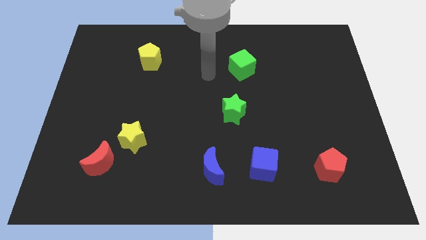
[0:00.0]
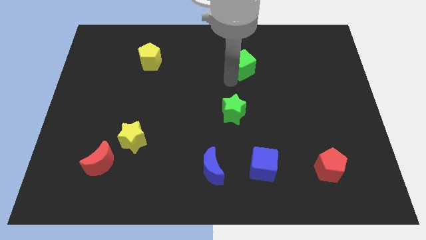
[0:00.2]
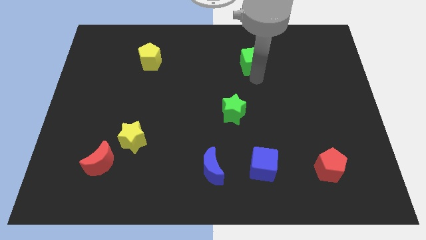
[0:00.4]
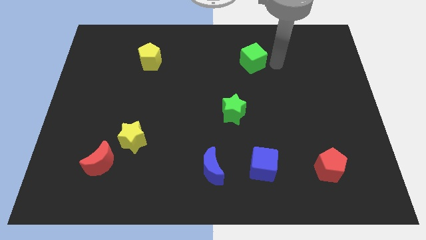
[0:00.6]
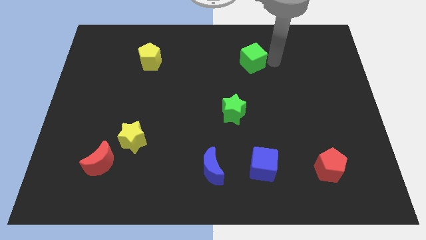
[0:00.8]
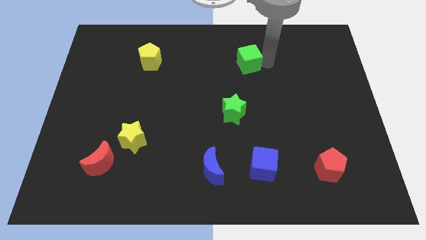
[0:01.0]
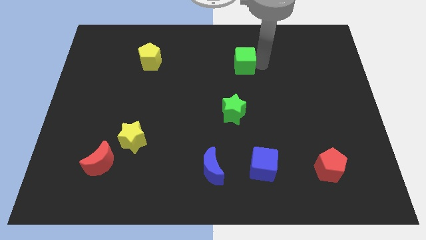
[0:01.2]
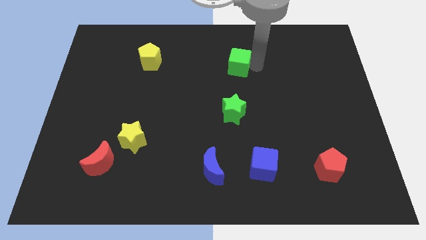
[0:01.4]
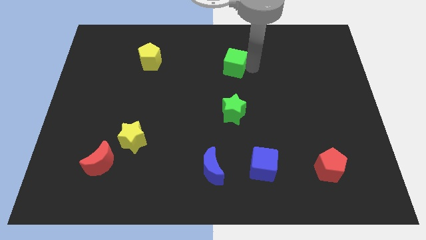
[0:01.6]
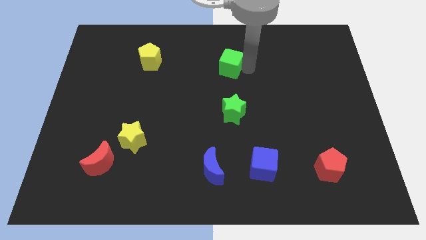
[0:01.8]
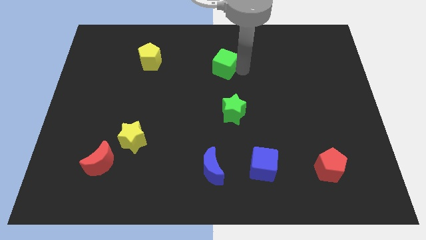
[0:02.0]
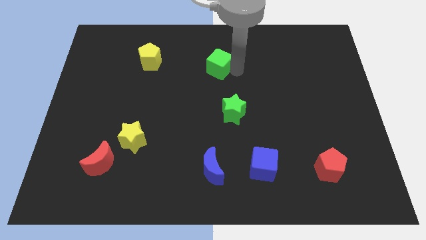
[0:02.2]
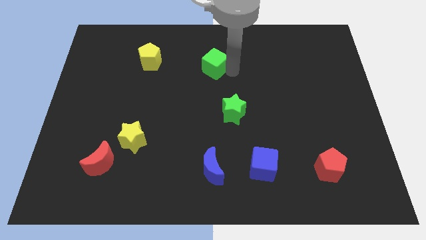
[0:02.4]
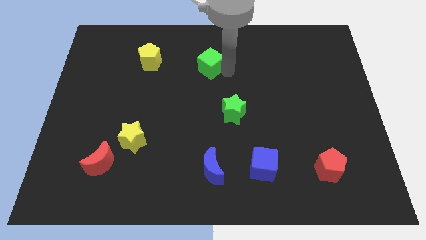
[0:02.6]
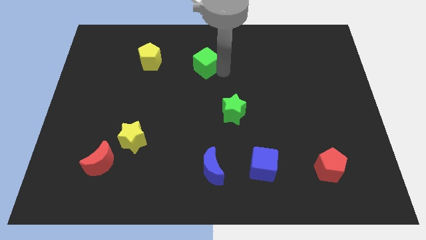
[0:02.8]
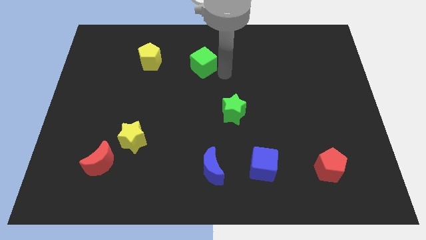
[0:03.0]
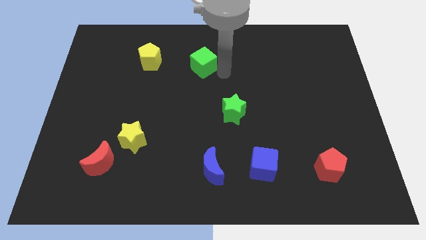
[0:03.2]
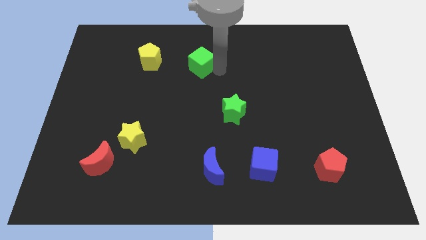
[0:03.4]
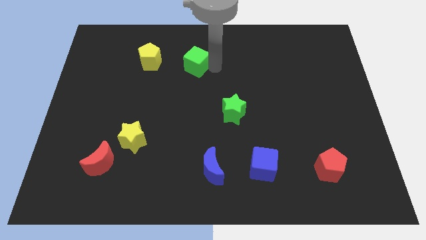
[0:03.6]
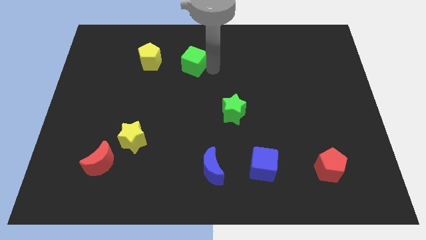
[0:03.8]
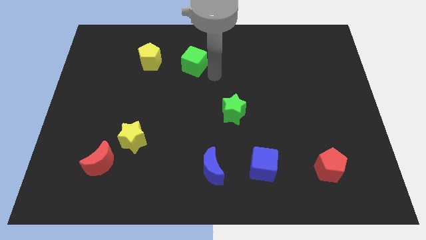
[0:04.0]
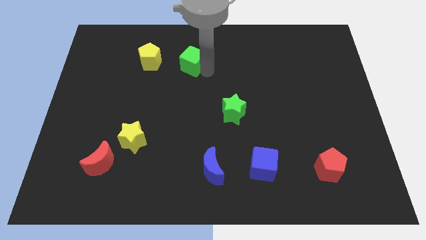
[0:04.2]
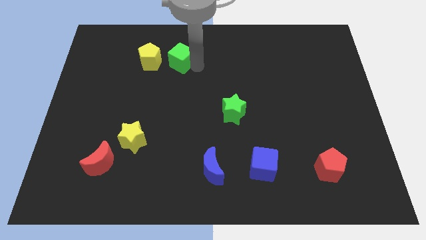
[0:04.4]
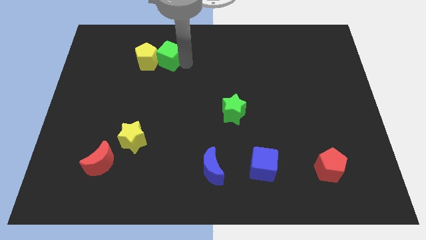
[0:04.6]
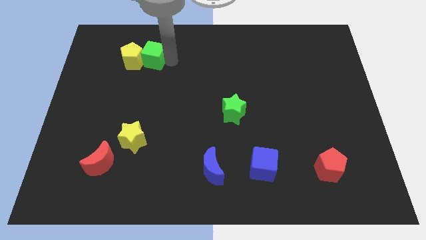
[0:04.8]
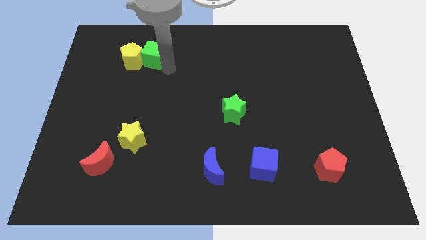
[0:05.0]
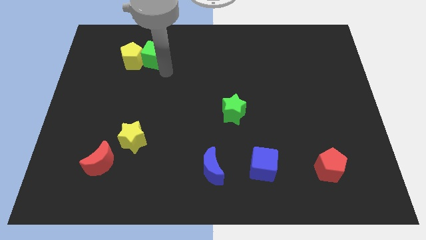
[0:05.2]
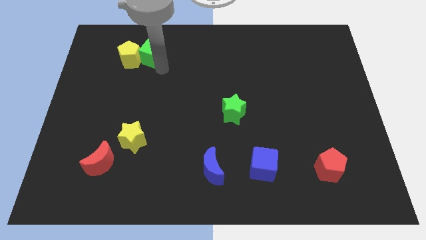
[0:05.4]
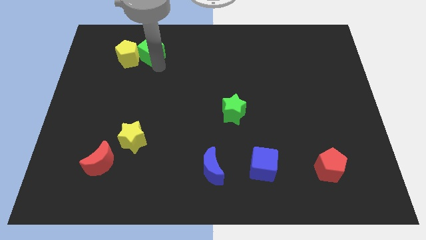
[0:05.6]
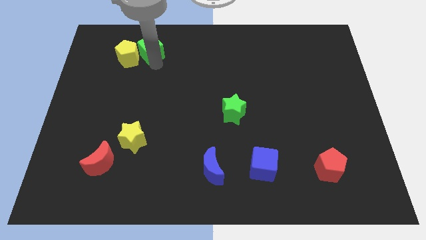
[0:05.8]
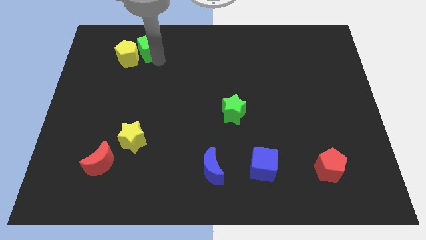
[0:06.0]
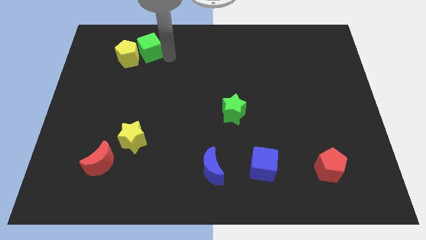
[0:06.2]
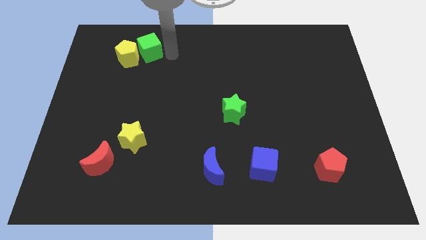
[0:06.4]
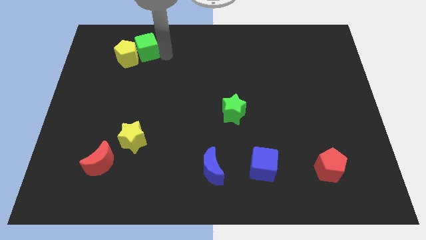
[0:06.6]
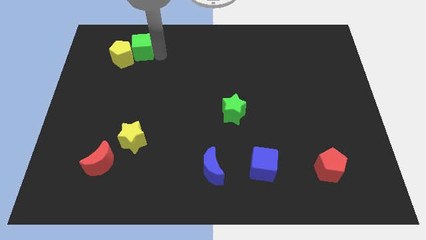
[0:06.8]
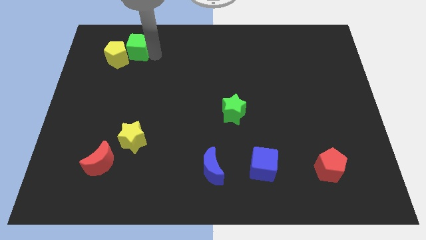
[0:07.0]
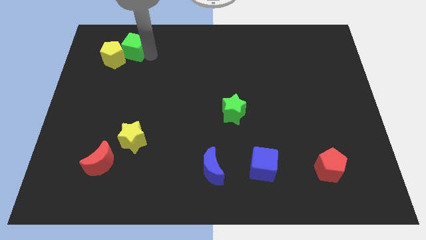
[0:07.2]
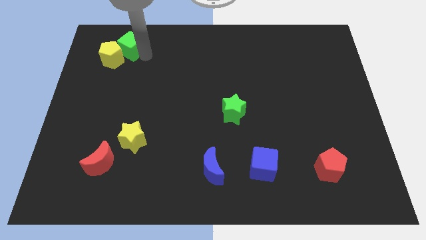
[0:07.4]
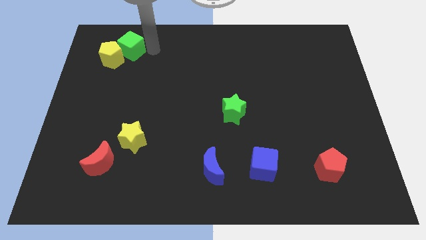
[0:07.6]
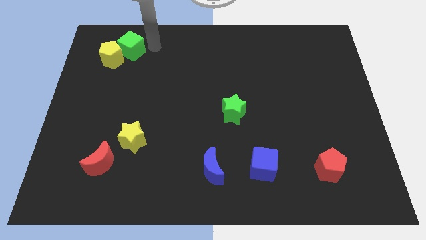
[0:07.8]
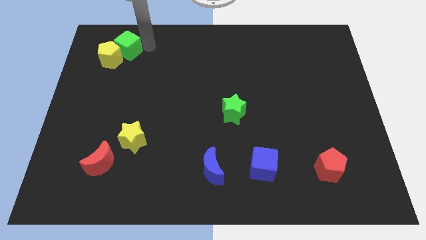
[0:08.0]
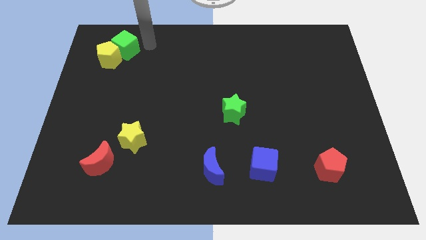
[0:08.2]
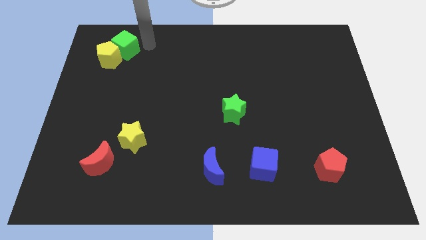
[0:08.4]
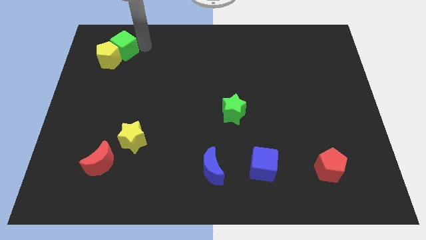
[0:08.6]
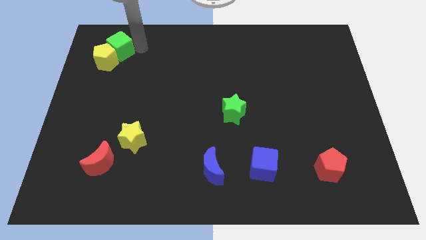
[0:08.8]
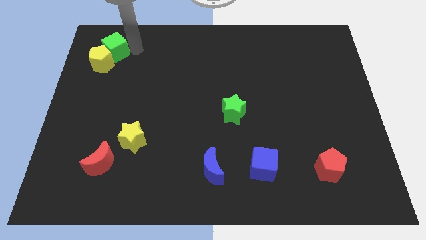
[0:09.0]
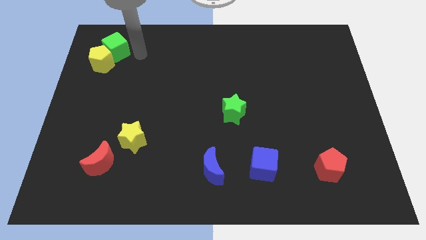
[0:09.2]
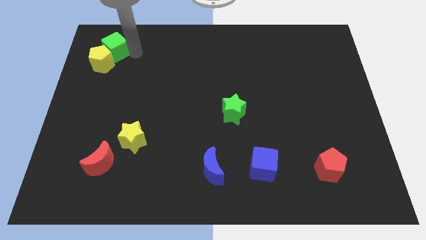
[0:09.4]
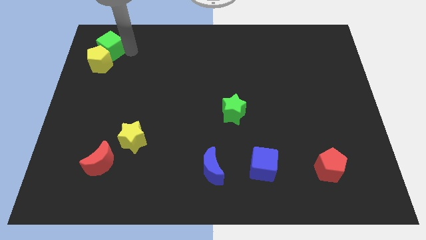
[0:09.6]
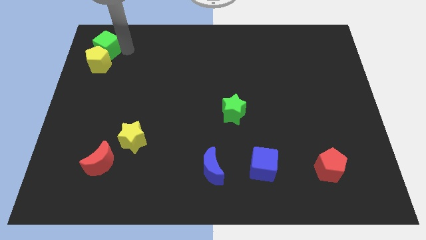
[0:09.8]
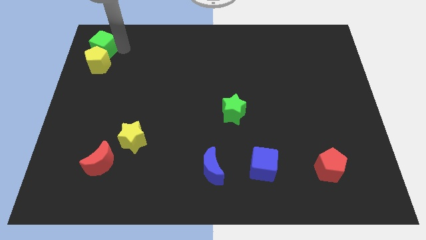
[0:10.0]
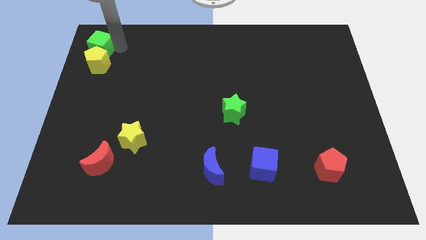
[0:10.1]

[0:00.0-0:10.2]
push the green cube to the top left corner

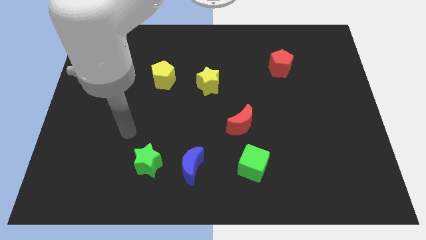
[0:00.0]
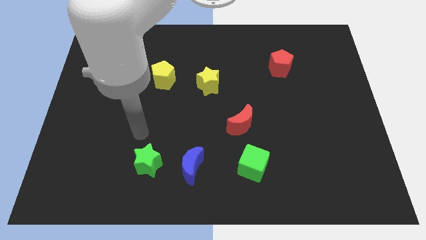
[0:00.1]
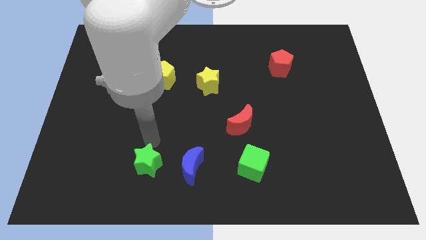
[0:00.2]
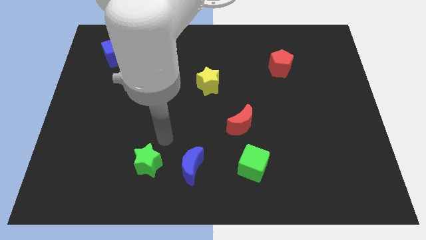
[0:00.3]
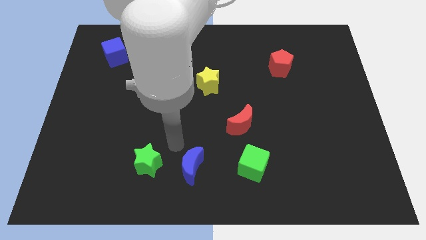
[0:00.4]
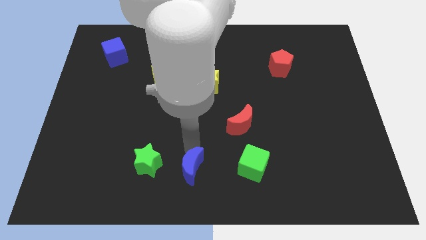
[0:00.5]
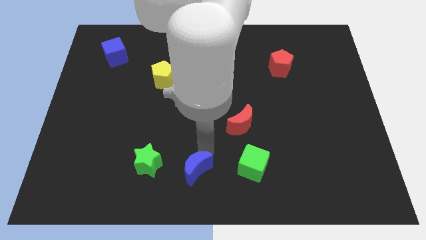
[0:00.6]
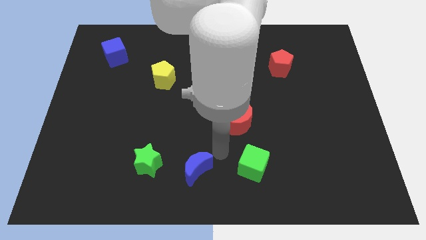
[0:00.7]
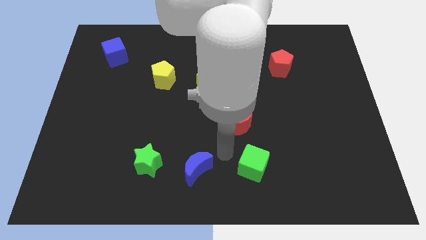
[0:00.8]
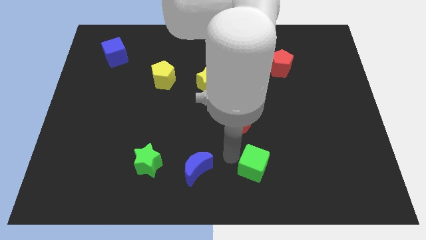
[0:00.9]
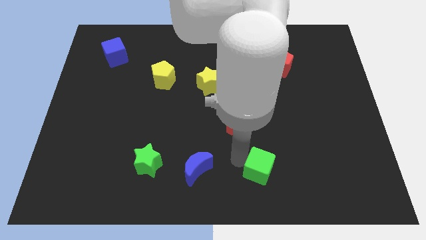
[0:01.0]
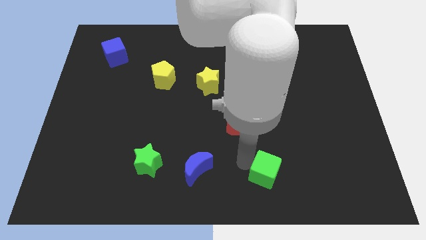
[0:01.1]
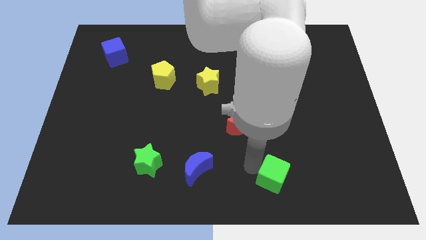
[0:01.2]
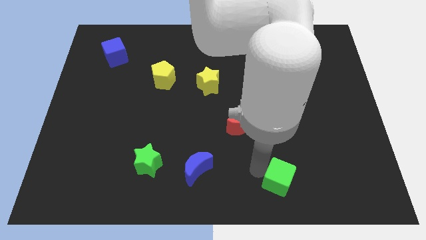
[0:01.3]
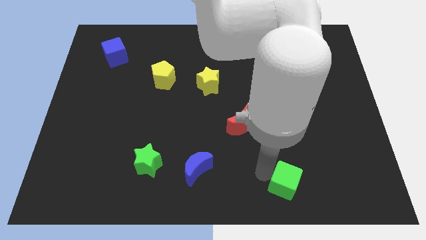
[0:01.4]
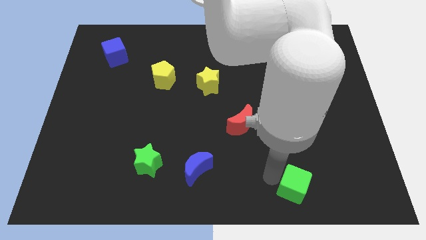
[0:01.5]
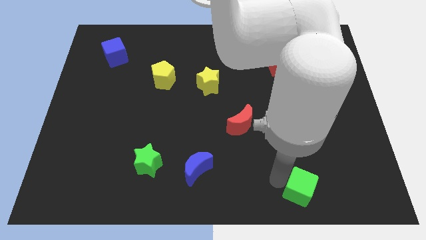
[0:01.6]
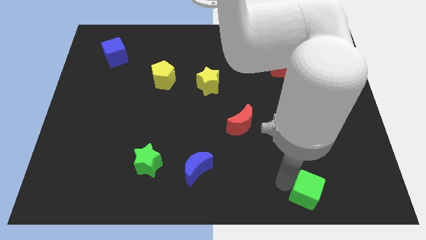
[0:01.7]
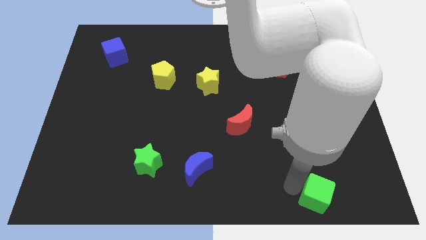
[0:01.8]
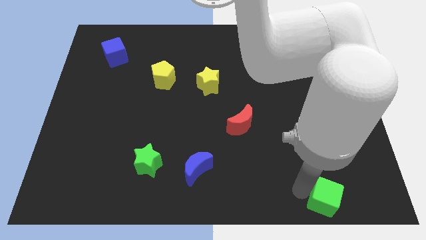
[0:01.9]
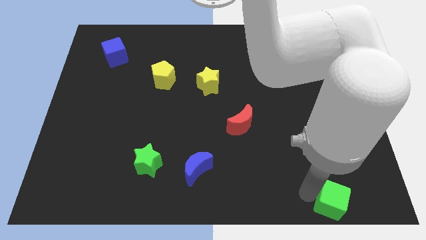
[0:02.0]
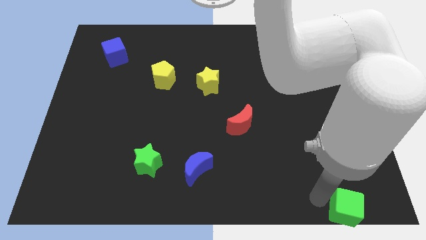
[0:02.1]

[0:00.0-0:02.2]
move the green cube to the bottom right
